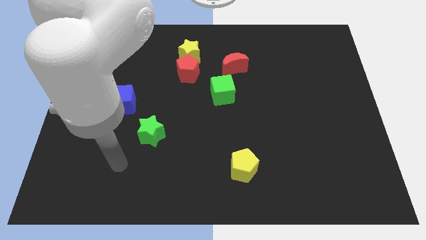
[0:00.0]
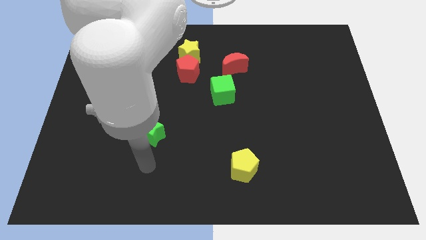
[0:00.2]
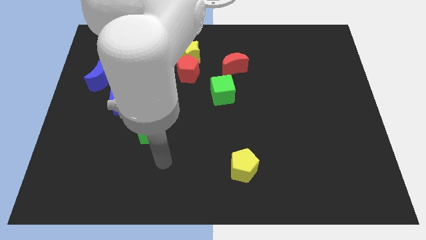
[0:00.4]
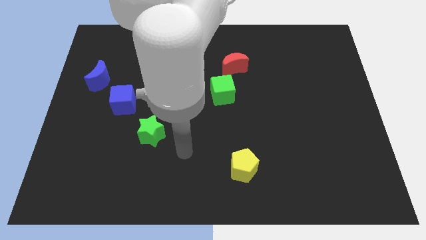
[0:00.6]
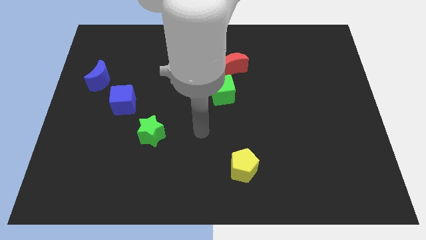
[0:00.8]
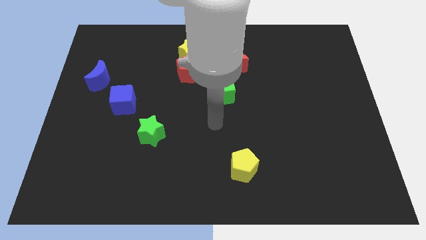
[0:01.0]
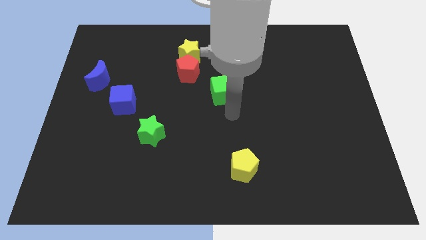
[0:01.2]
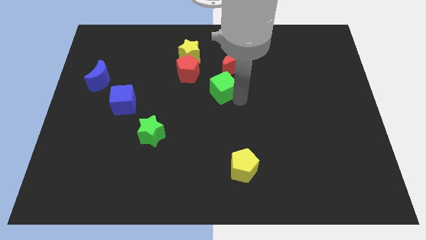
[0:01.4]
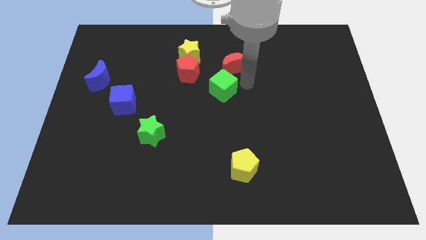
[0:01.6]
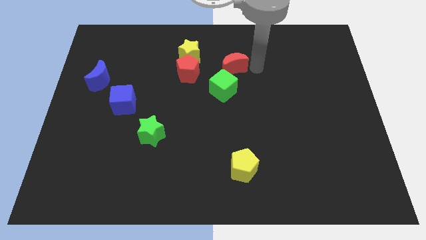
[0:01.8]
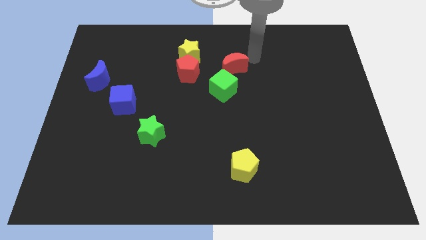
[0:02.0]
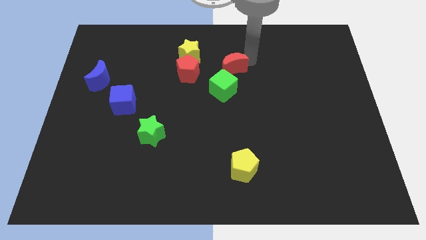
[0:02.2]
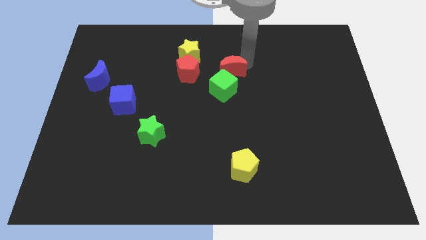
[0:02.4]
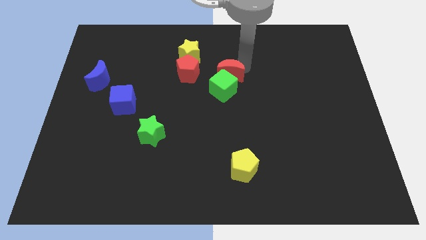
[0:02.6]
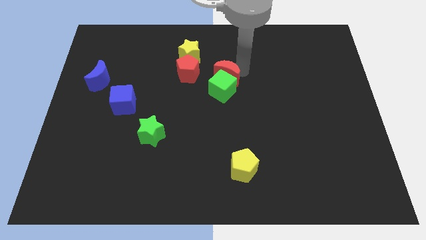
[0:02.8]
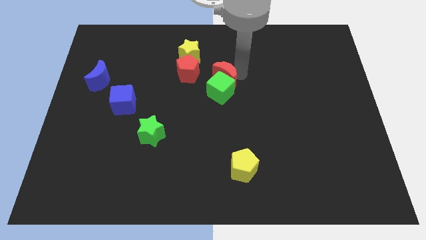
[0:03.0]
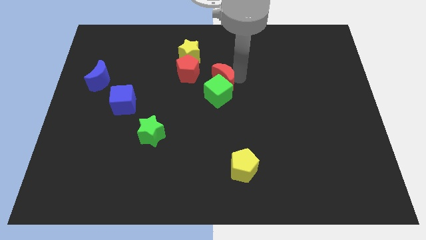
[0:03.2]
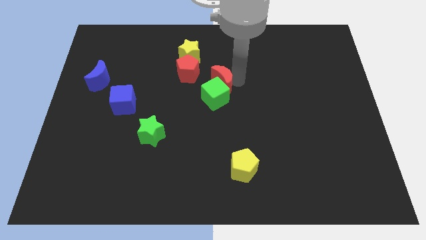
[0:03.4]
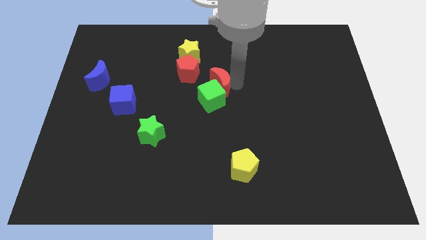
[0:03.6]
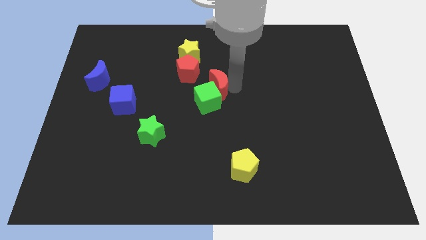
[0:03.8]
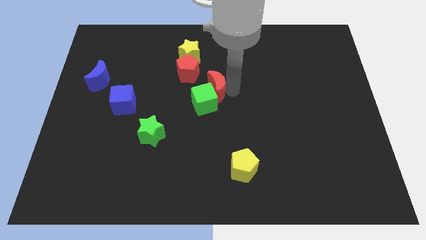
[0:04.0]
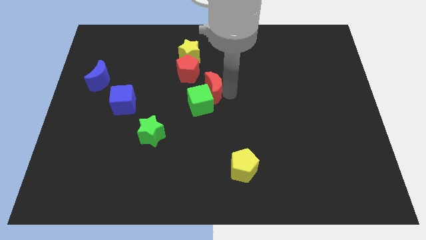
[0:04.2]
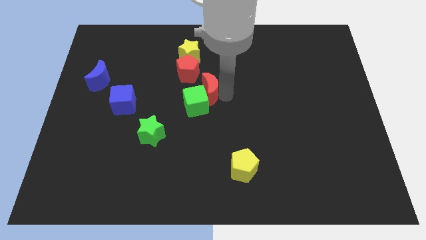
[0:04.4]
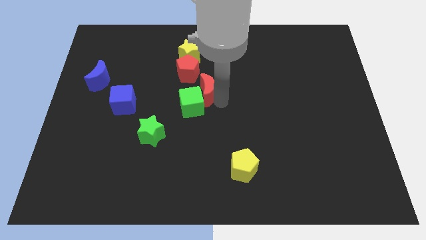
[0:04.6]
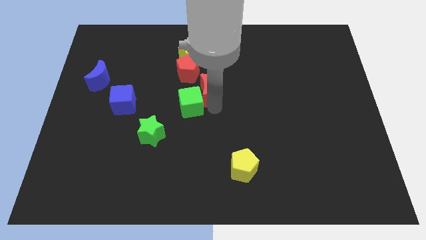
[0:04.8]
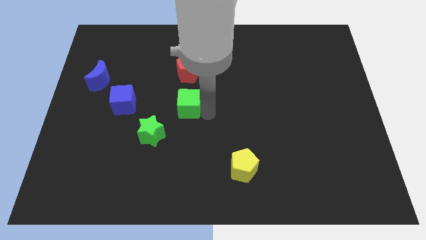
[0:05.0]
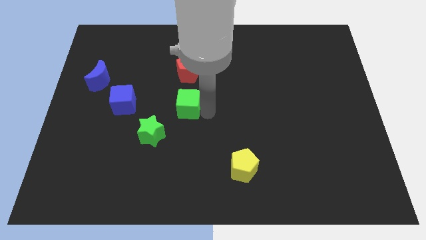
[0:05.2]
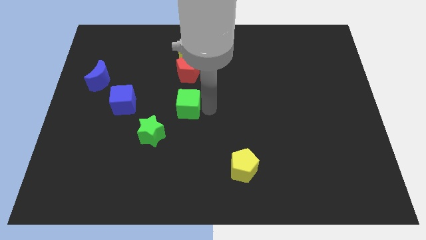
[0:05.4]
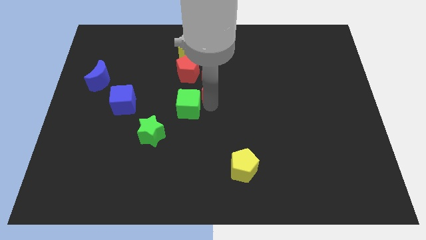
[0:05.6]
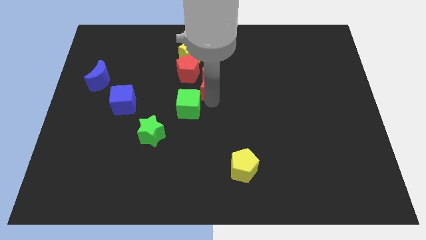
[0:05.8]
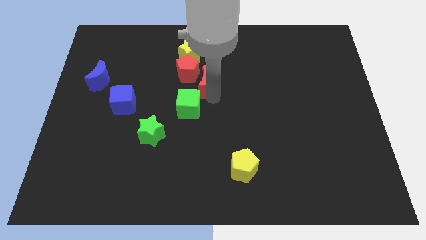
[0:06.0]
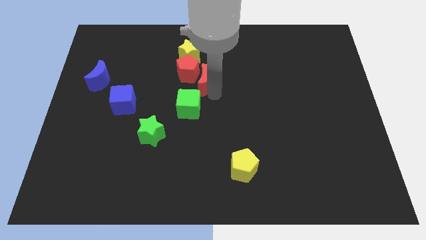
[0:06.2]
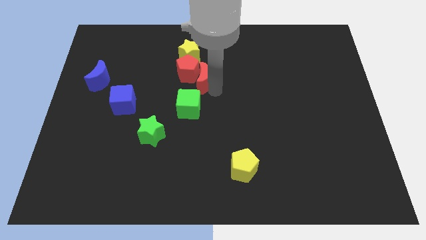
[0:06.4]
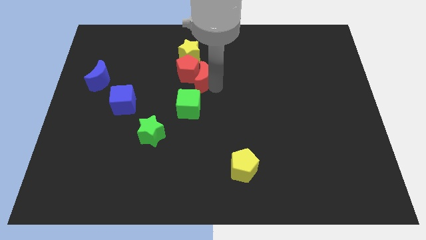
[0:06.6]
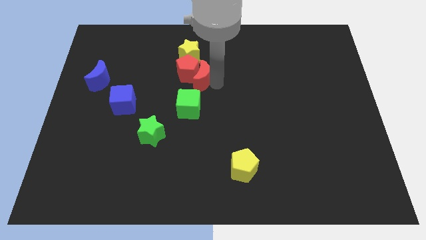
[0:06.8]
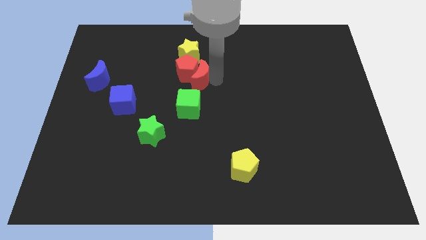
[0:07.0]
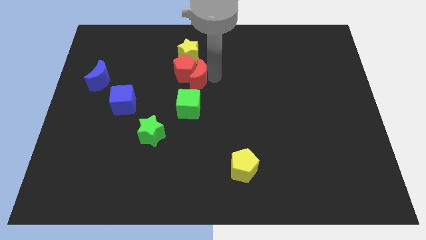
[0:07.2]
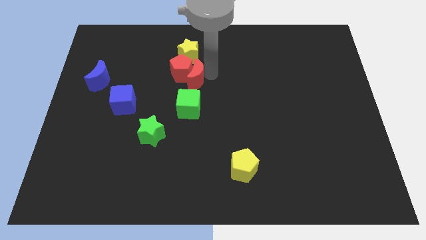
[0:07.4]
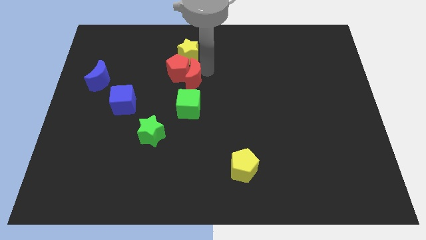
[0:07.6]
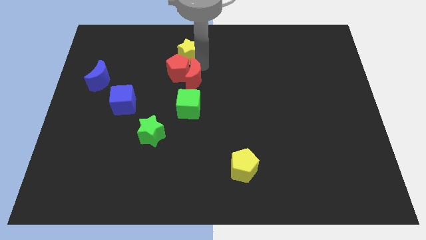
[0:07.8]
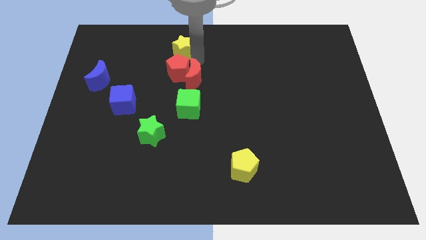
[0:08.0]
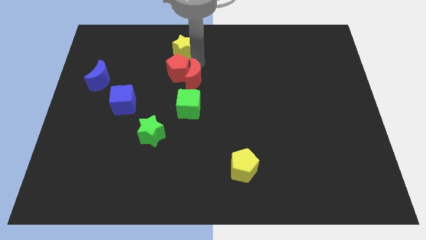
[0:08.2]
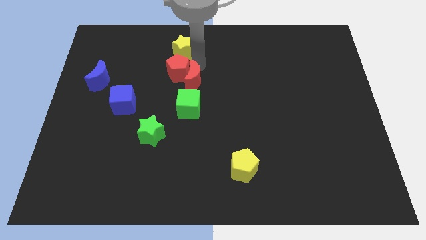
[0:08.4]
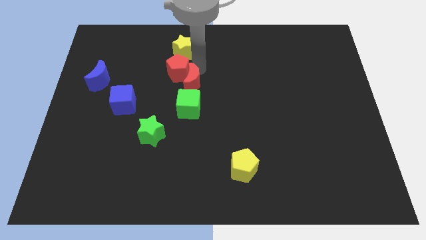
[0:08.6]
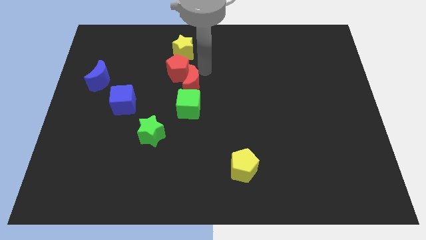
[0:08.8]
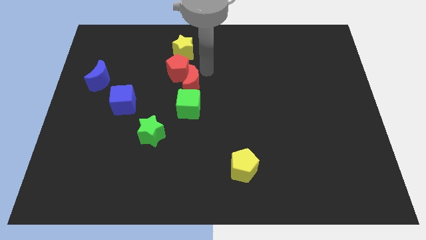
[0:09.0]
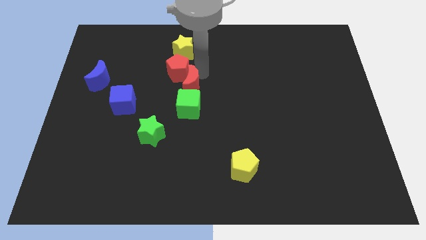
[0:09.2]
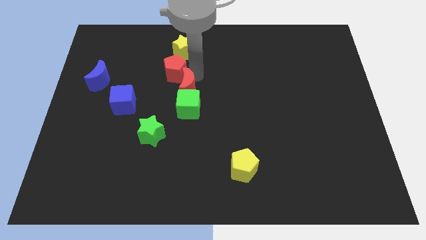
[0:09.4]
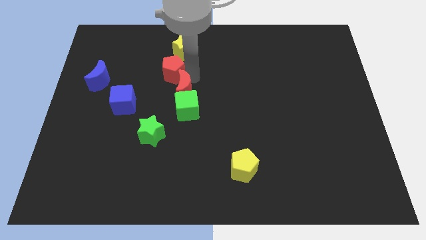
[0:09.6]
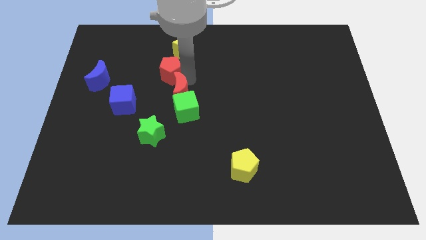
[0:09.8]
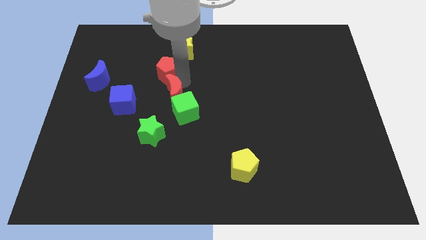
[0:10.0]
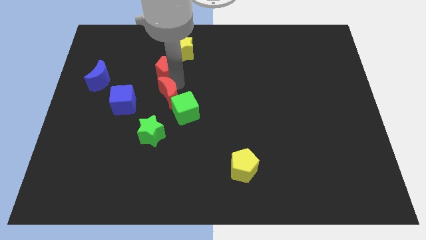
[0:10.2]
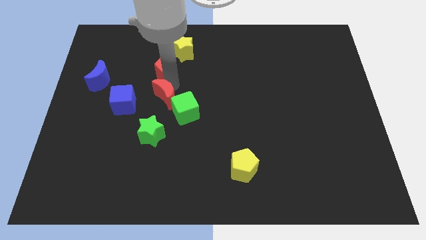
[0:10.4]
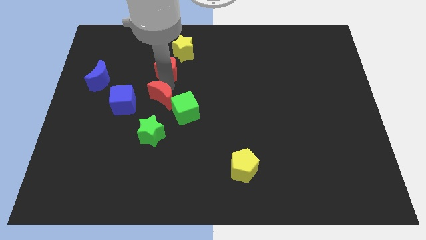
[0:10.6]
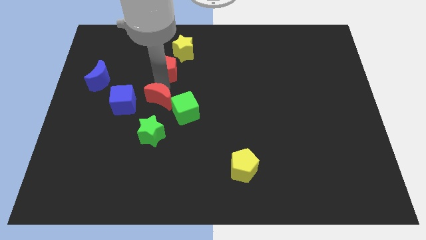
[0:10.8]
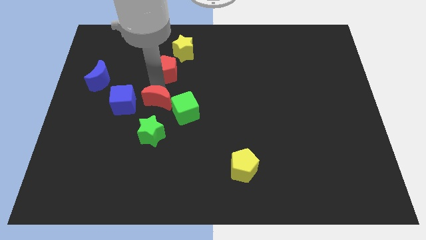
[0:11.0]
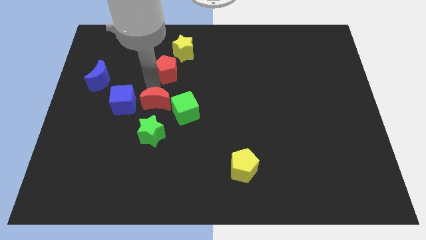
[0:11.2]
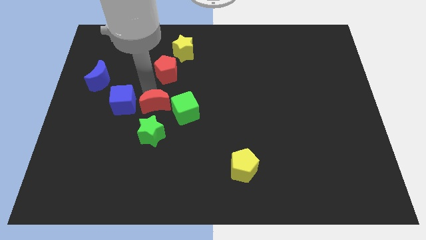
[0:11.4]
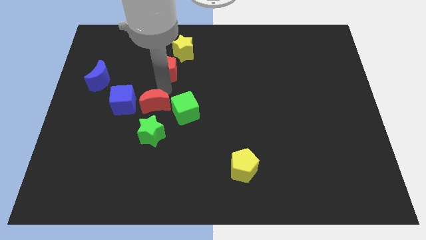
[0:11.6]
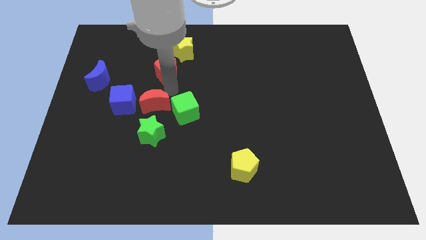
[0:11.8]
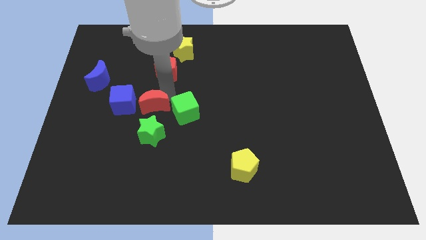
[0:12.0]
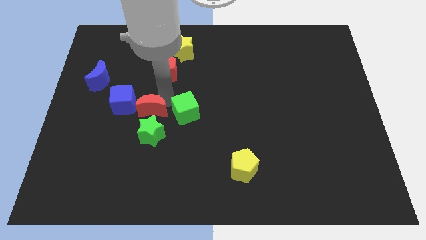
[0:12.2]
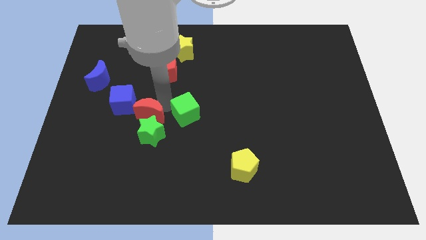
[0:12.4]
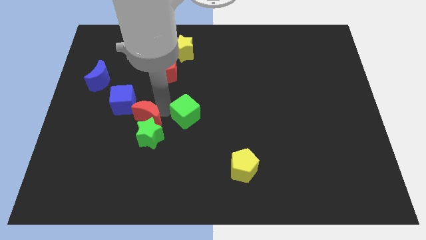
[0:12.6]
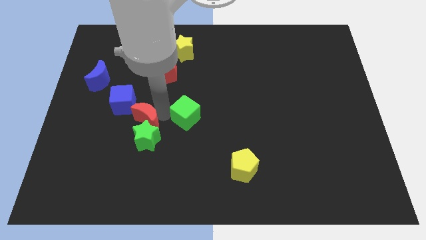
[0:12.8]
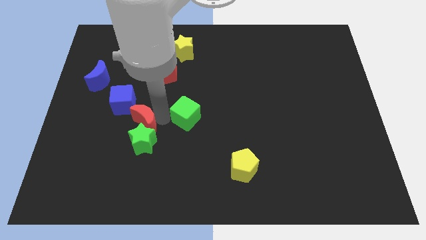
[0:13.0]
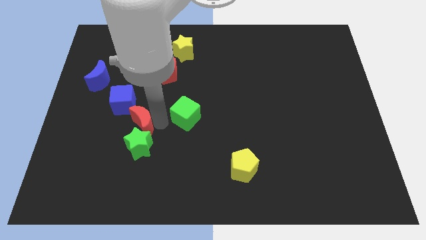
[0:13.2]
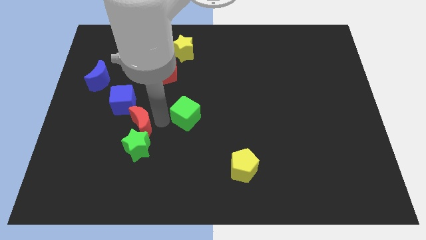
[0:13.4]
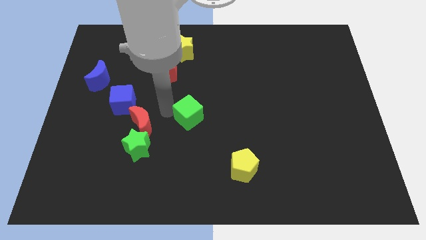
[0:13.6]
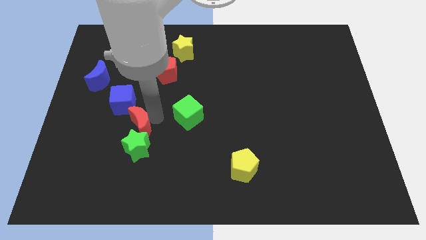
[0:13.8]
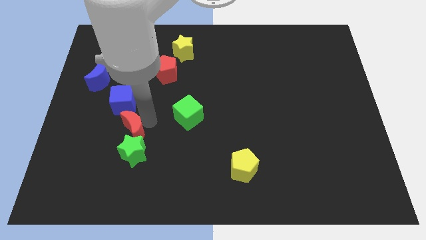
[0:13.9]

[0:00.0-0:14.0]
push the red moon below the blue cube

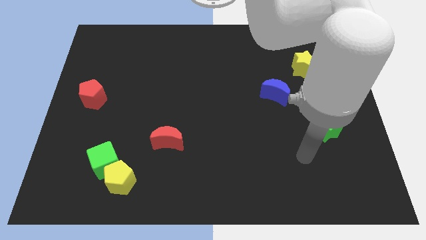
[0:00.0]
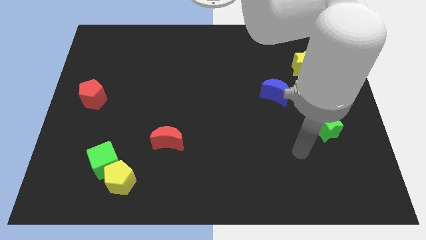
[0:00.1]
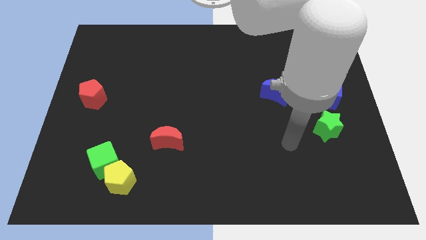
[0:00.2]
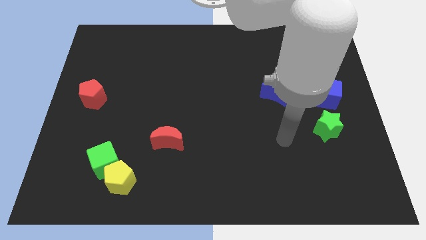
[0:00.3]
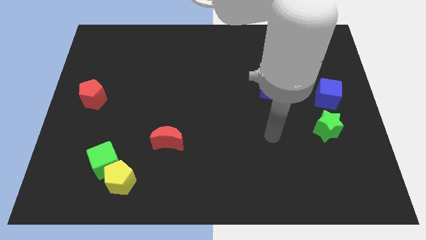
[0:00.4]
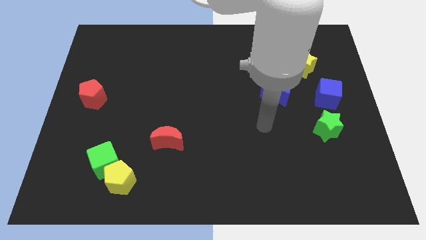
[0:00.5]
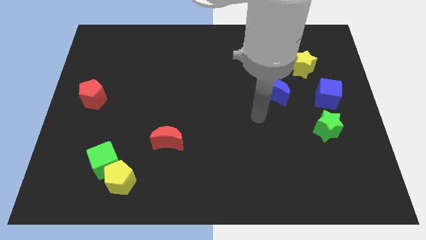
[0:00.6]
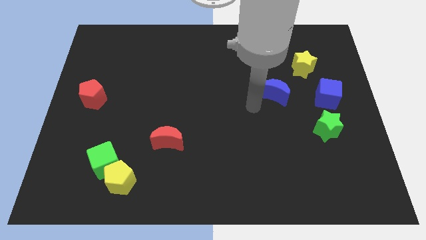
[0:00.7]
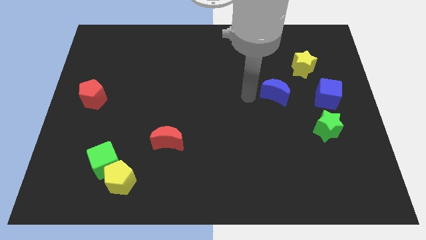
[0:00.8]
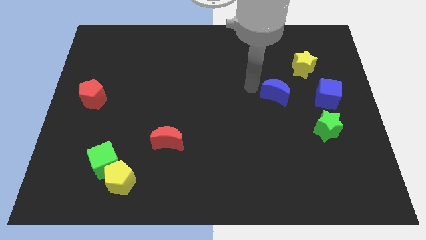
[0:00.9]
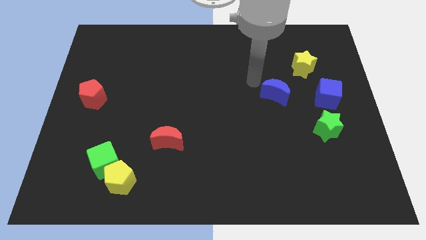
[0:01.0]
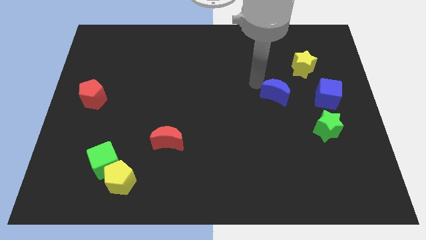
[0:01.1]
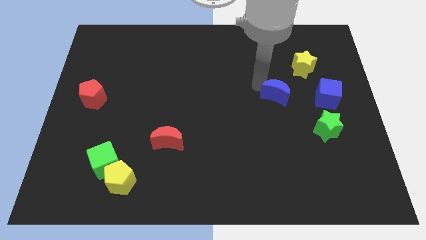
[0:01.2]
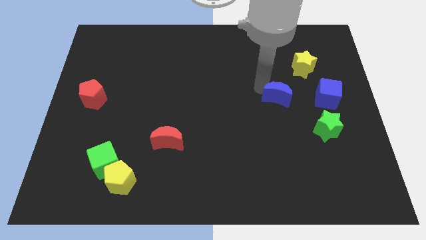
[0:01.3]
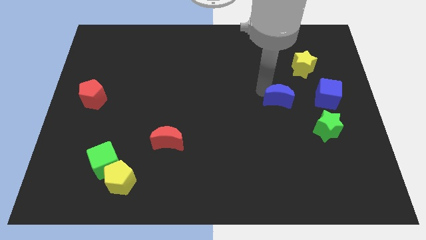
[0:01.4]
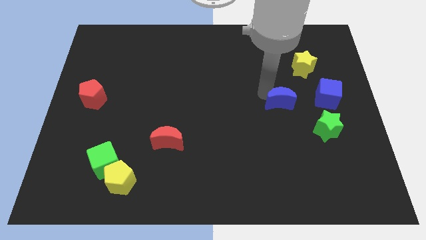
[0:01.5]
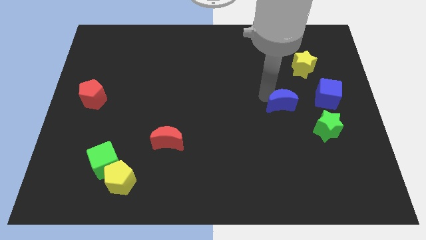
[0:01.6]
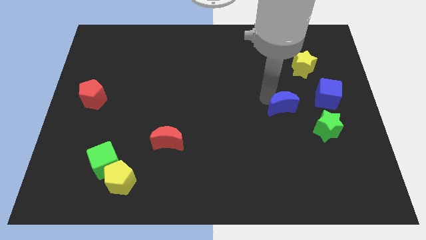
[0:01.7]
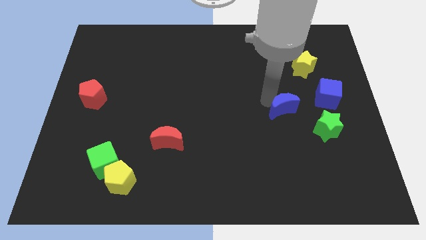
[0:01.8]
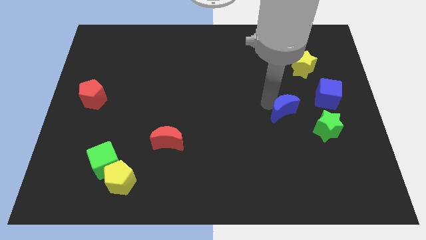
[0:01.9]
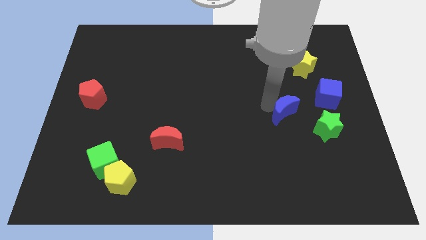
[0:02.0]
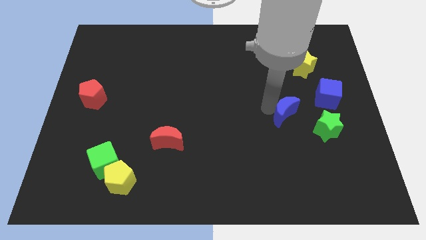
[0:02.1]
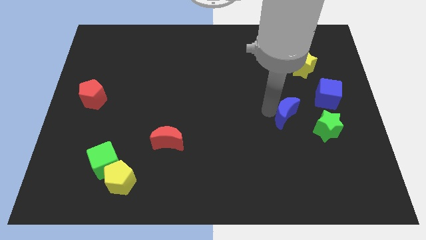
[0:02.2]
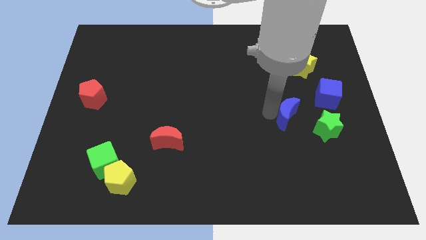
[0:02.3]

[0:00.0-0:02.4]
slide the blue moon diagonally down and to the left of the blue cube
